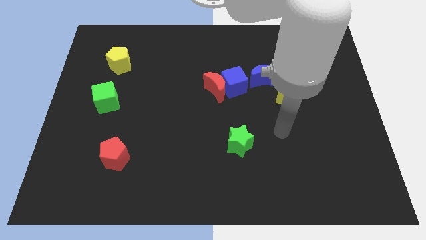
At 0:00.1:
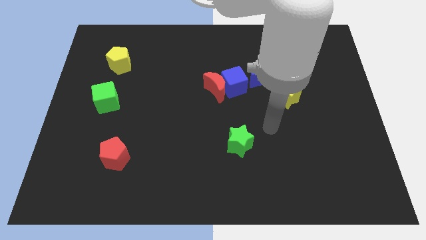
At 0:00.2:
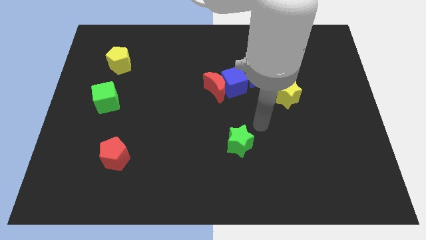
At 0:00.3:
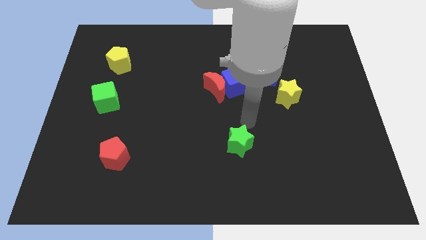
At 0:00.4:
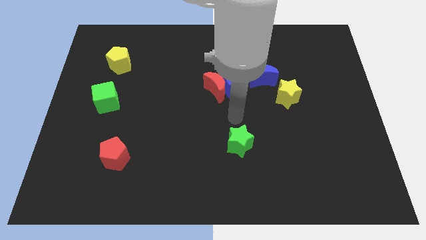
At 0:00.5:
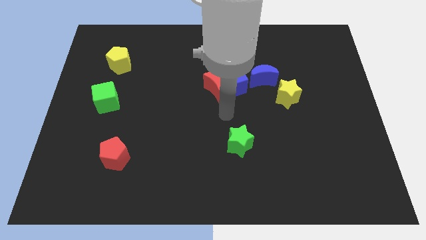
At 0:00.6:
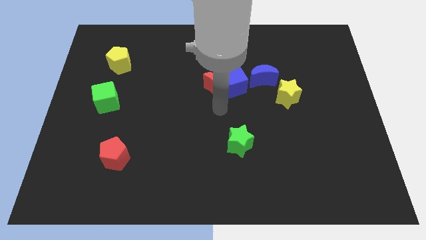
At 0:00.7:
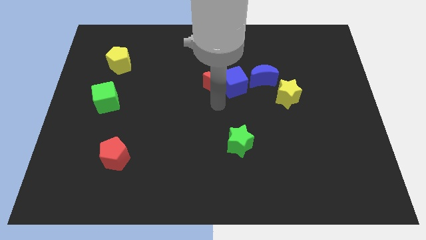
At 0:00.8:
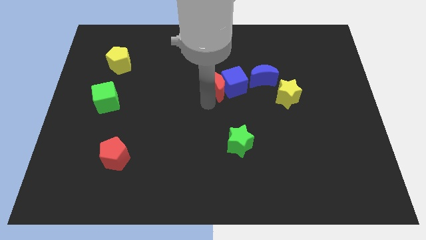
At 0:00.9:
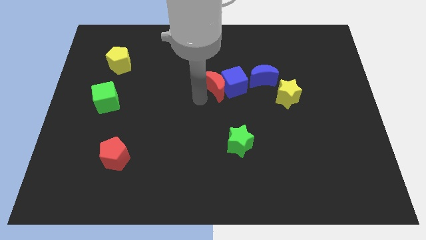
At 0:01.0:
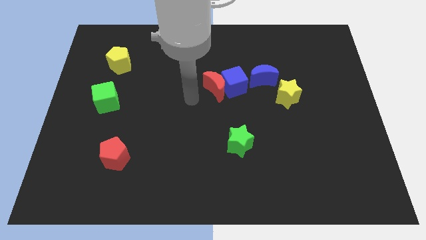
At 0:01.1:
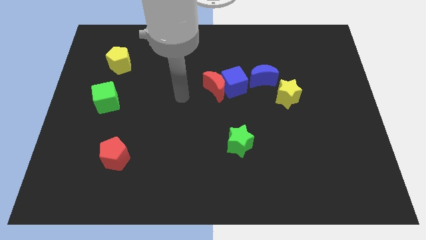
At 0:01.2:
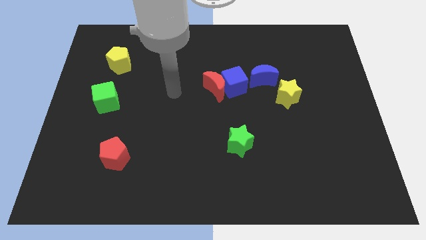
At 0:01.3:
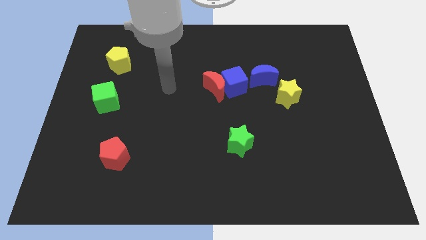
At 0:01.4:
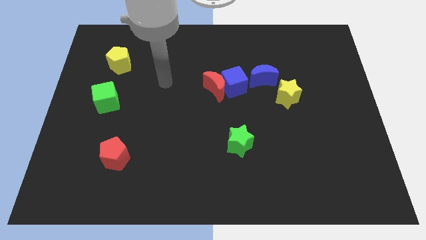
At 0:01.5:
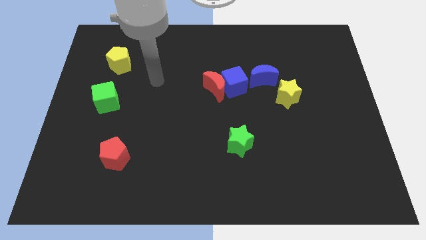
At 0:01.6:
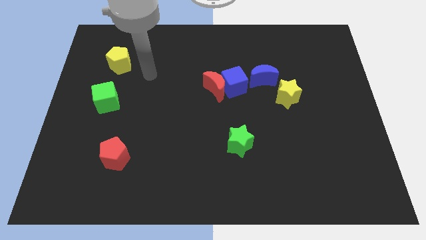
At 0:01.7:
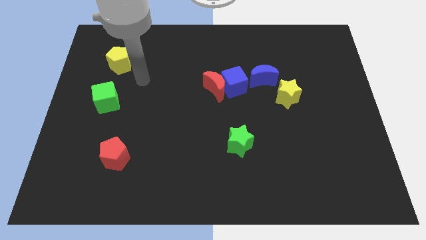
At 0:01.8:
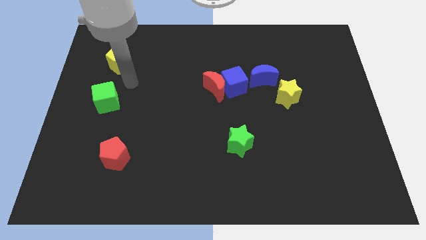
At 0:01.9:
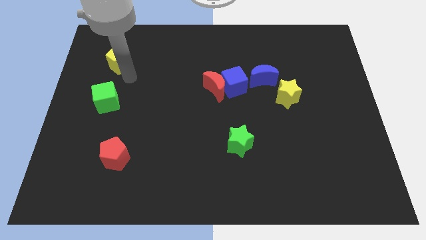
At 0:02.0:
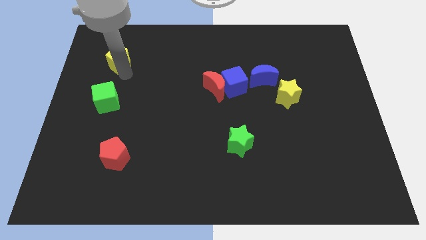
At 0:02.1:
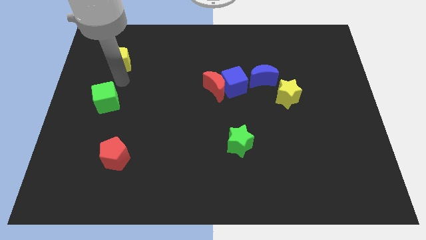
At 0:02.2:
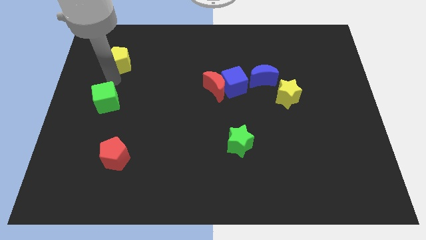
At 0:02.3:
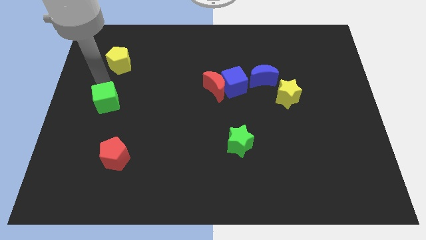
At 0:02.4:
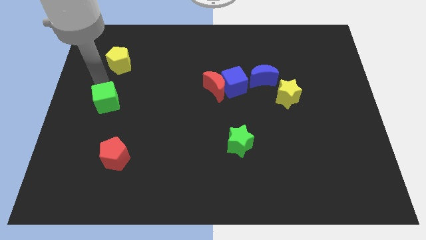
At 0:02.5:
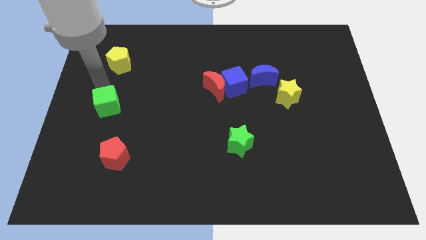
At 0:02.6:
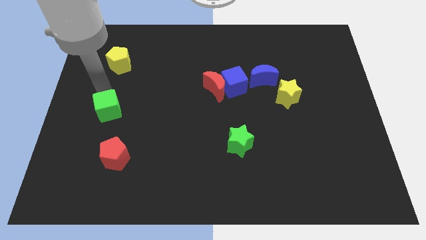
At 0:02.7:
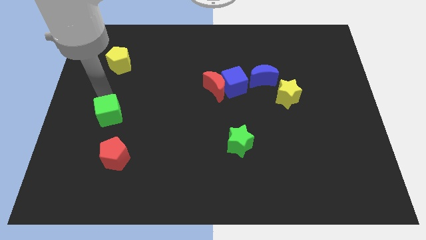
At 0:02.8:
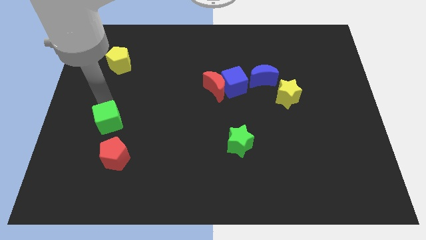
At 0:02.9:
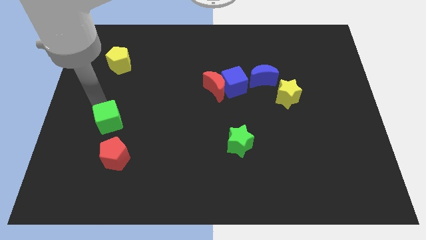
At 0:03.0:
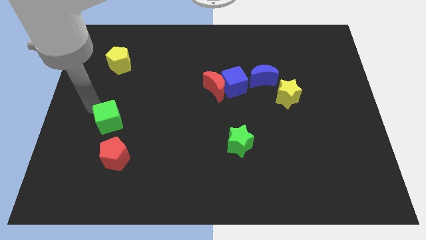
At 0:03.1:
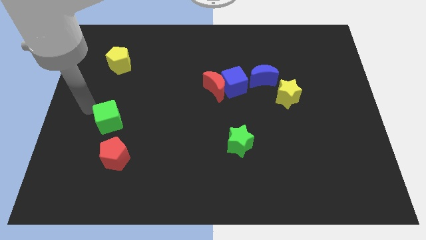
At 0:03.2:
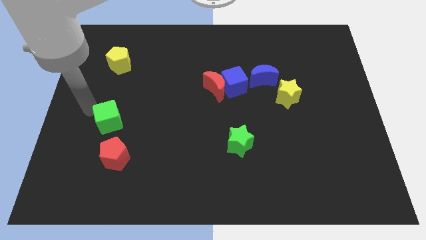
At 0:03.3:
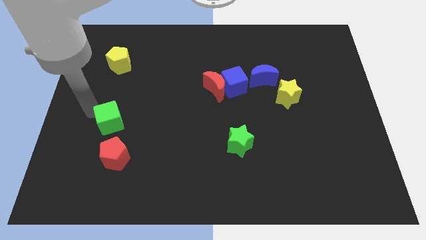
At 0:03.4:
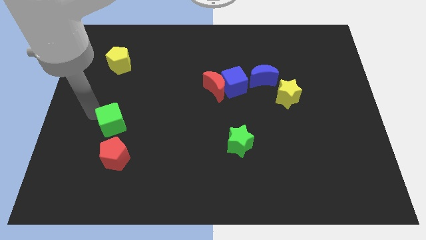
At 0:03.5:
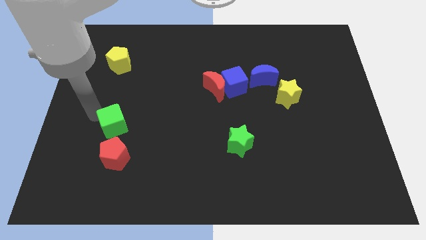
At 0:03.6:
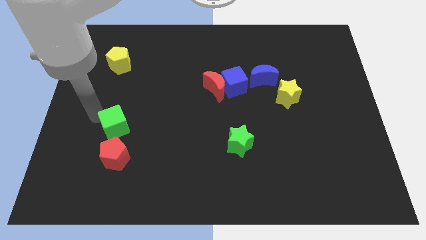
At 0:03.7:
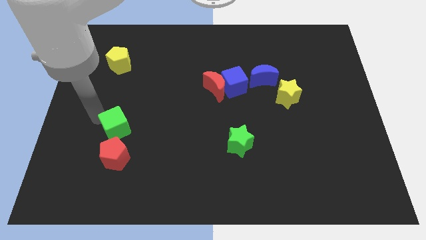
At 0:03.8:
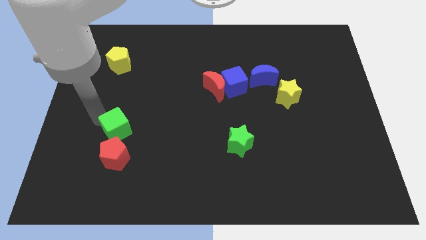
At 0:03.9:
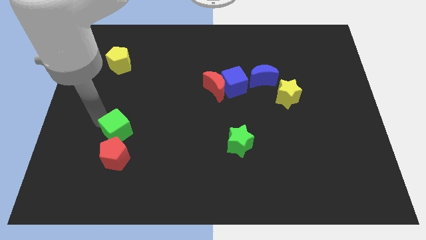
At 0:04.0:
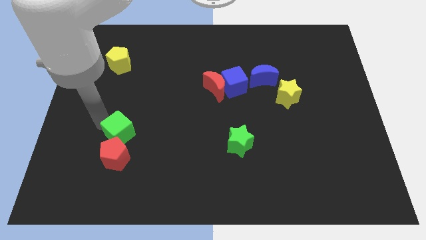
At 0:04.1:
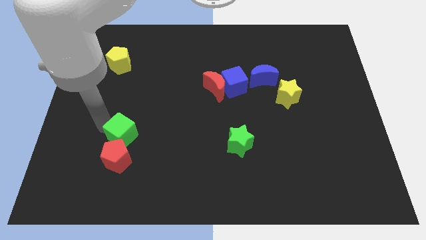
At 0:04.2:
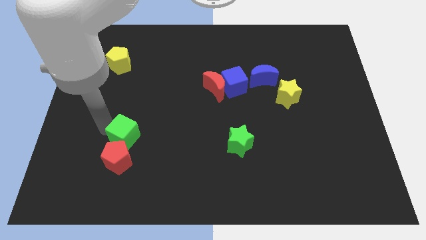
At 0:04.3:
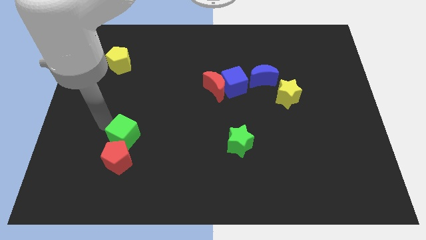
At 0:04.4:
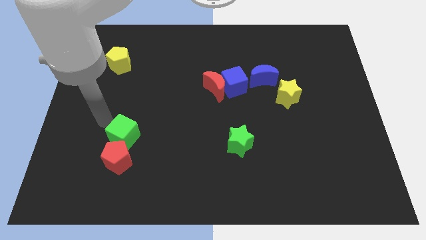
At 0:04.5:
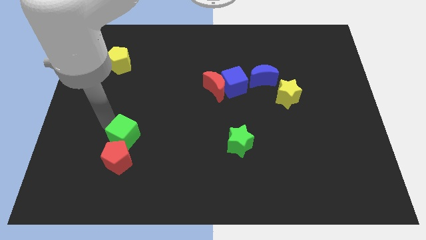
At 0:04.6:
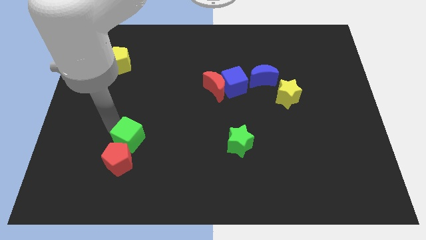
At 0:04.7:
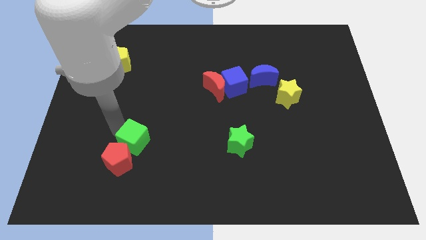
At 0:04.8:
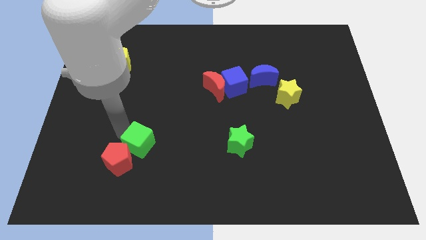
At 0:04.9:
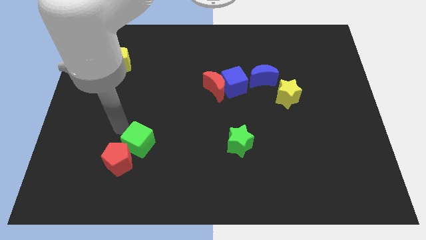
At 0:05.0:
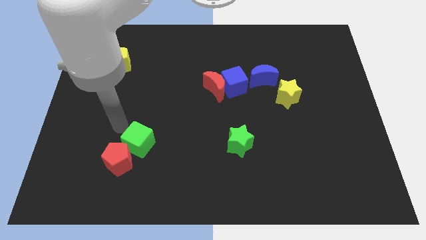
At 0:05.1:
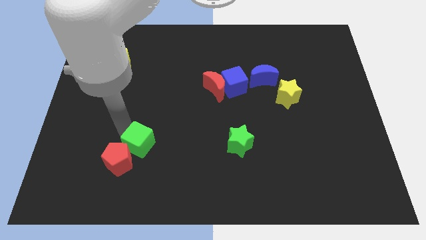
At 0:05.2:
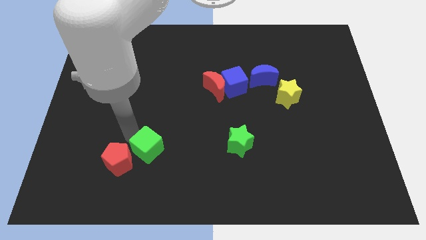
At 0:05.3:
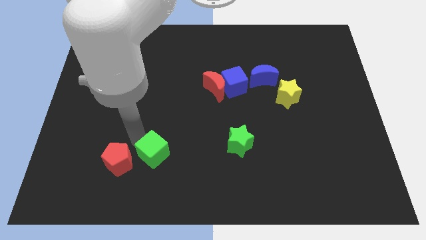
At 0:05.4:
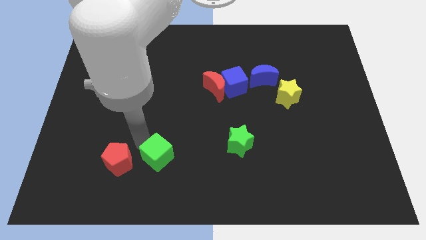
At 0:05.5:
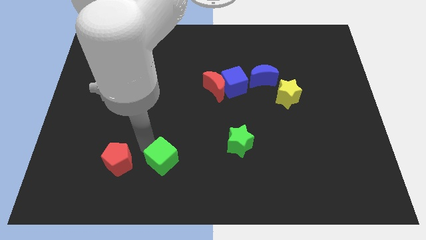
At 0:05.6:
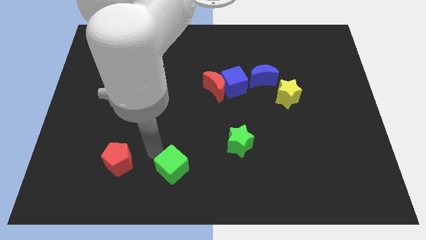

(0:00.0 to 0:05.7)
push the green cube to the bottom side
